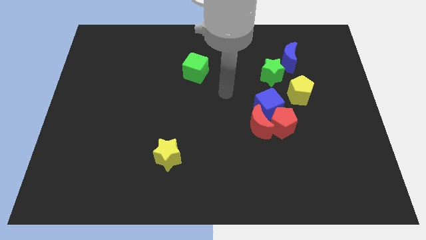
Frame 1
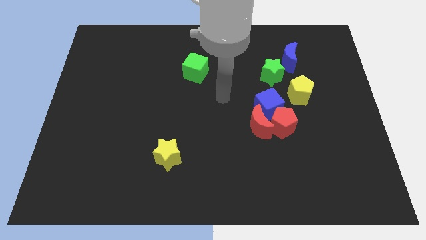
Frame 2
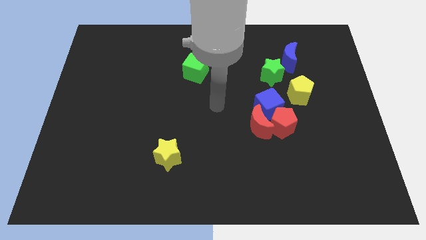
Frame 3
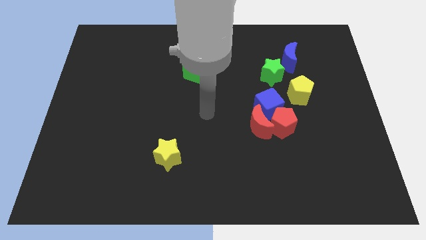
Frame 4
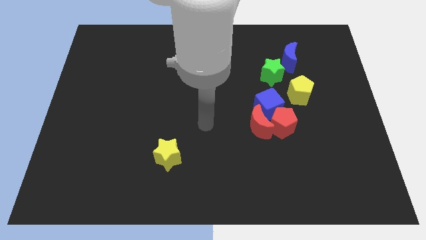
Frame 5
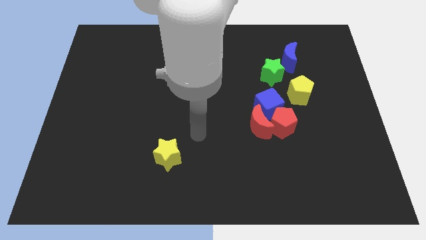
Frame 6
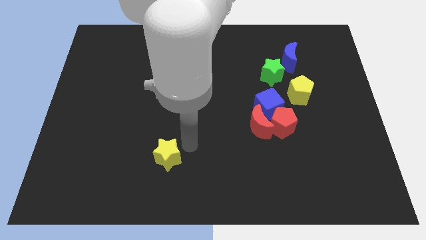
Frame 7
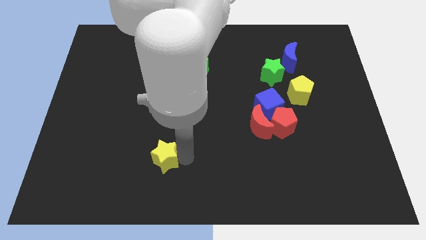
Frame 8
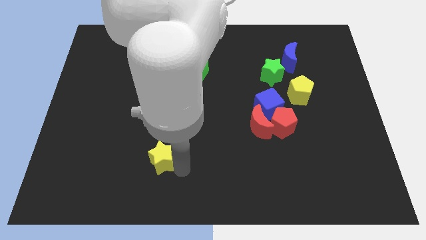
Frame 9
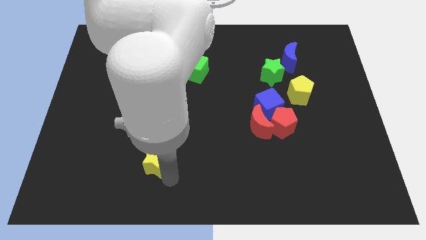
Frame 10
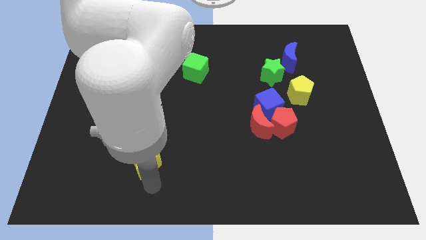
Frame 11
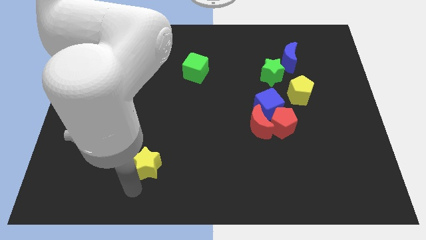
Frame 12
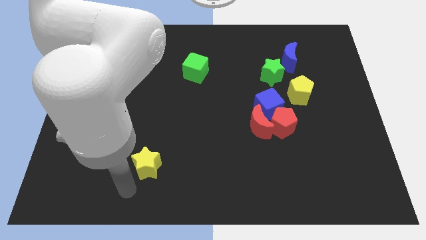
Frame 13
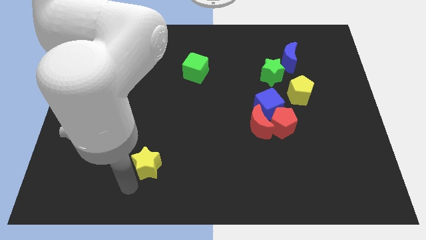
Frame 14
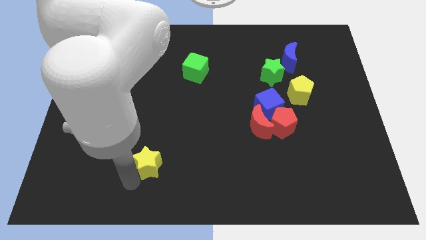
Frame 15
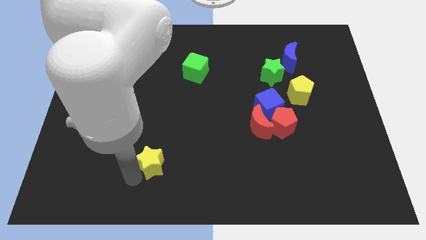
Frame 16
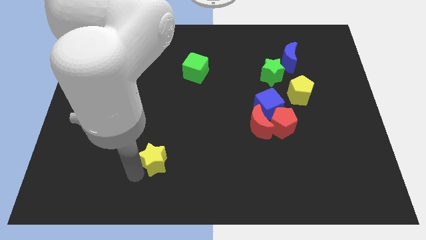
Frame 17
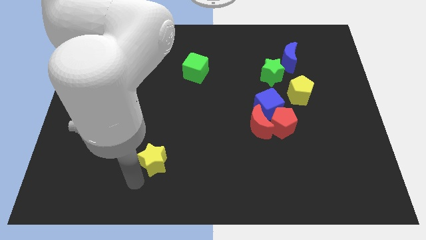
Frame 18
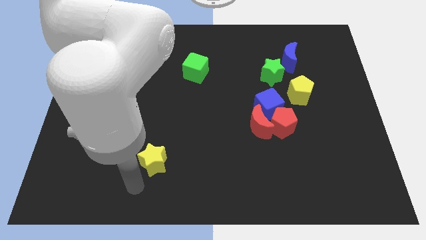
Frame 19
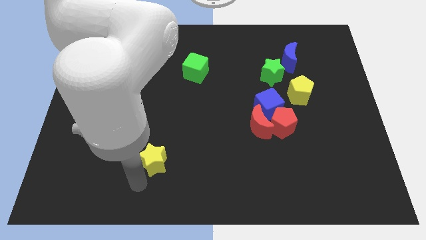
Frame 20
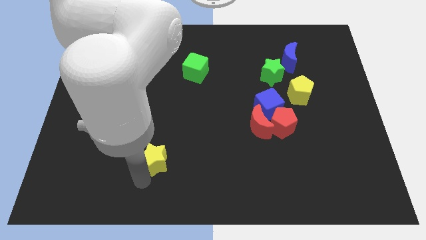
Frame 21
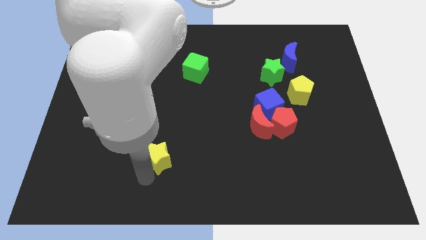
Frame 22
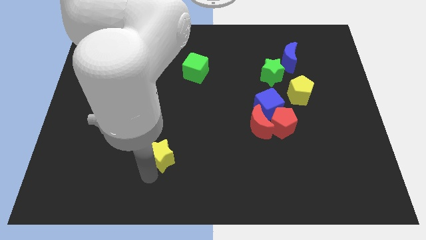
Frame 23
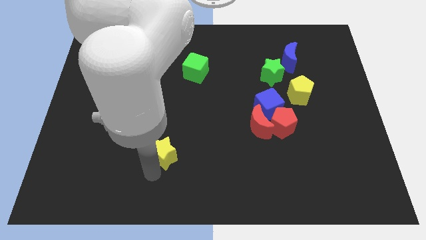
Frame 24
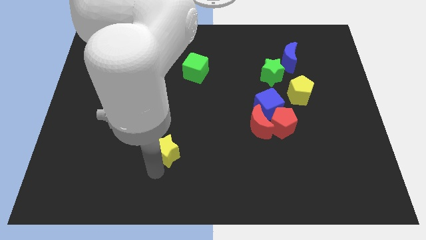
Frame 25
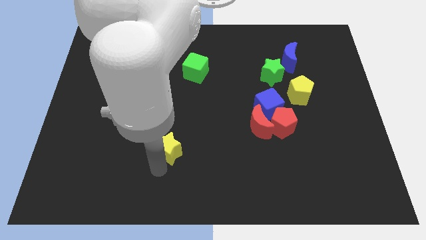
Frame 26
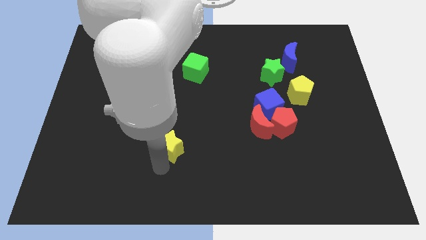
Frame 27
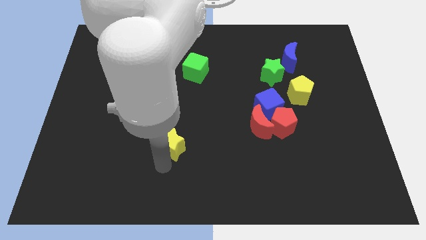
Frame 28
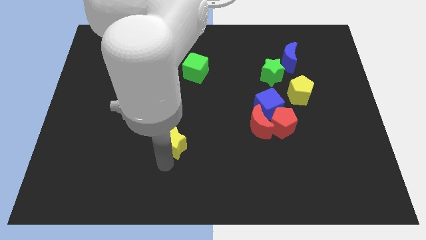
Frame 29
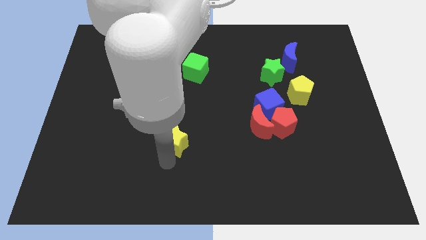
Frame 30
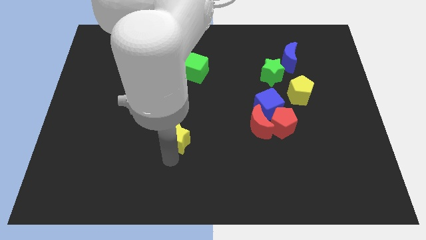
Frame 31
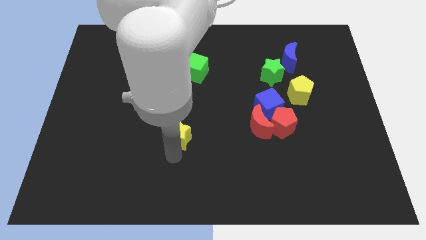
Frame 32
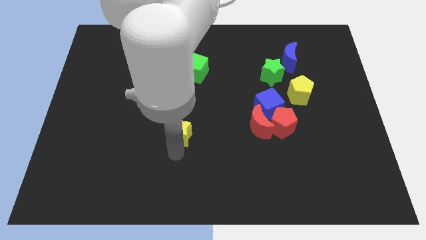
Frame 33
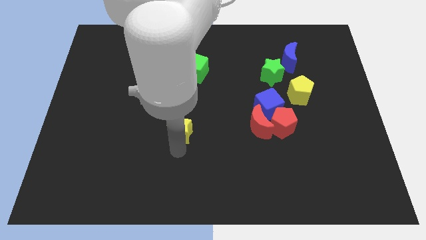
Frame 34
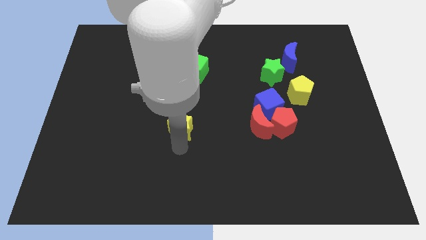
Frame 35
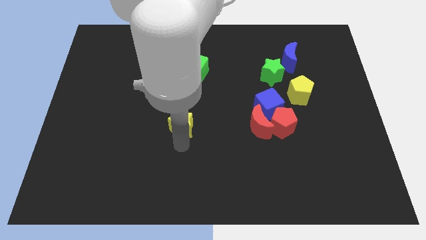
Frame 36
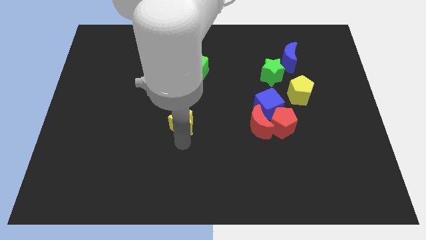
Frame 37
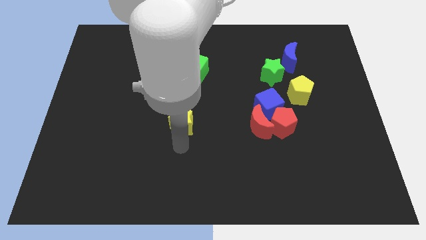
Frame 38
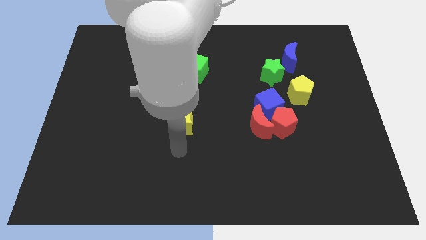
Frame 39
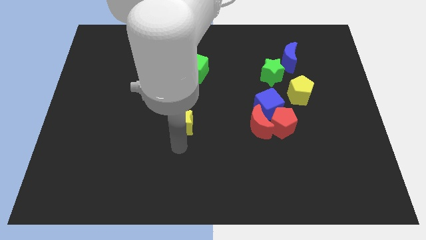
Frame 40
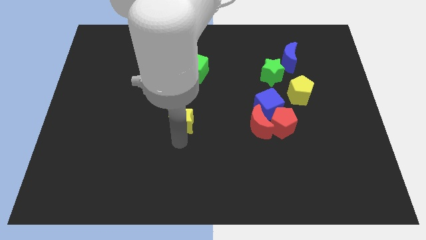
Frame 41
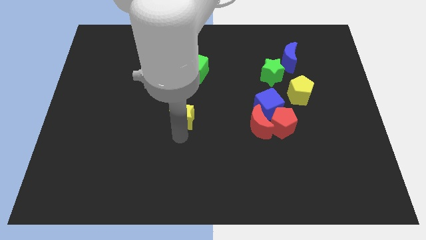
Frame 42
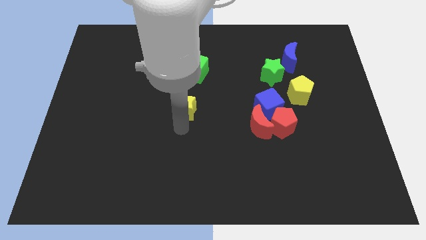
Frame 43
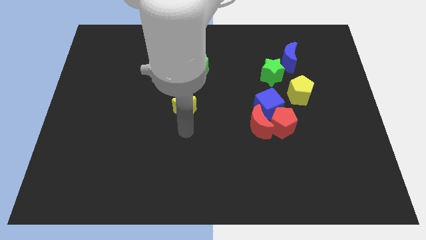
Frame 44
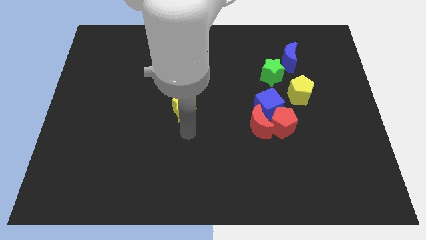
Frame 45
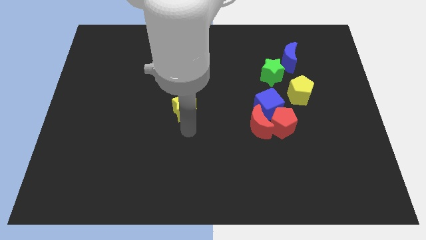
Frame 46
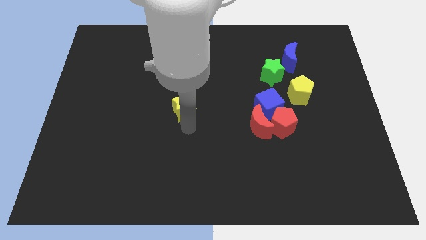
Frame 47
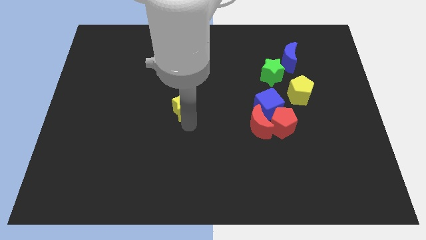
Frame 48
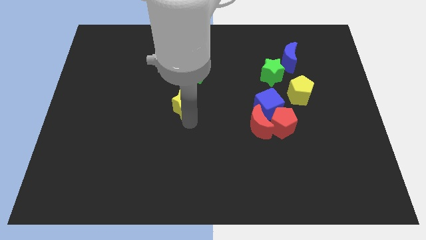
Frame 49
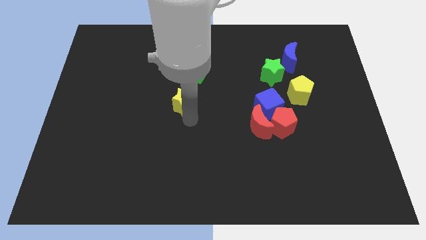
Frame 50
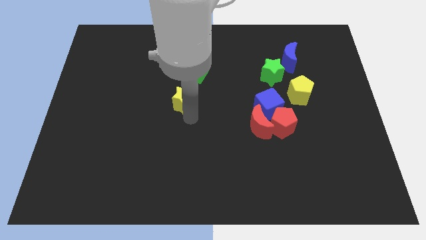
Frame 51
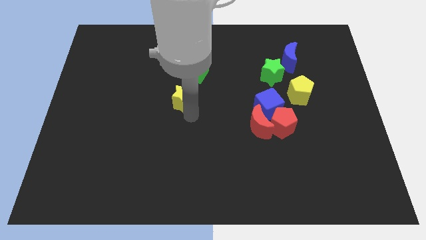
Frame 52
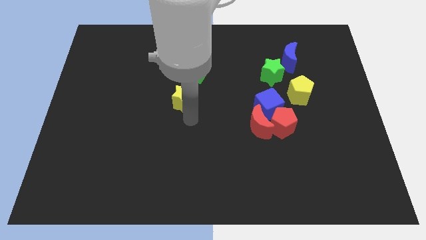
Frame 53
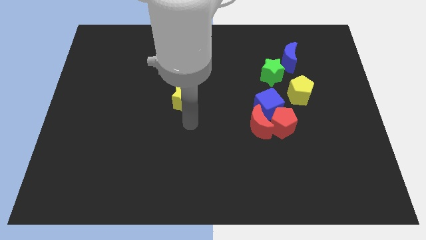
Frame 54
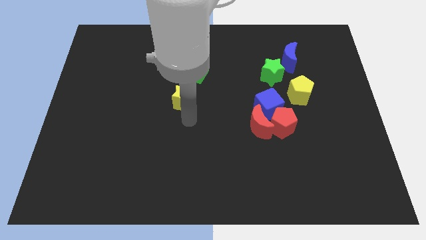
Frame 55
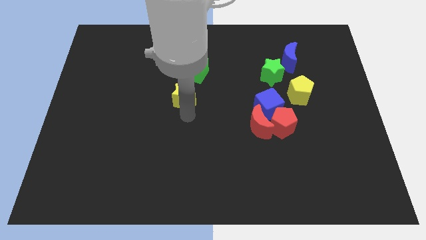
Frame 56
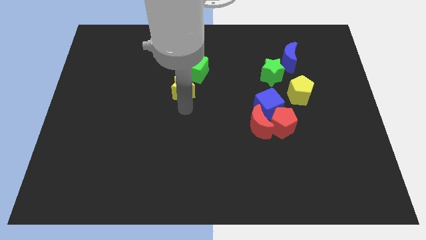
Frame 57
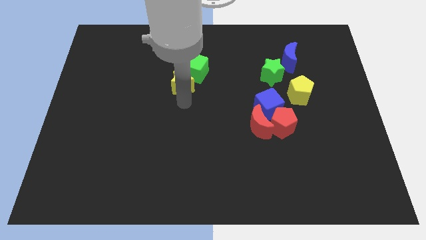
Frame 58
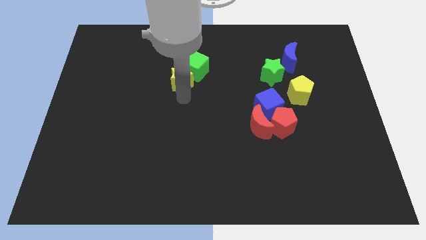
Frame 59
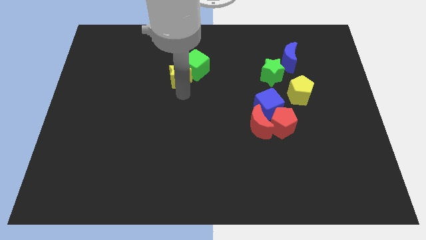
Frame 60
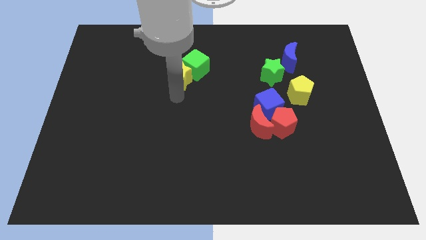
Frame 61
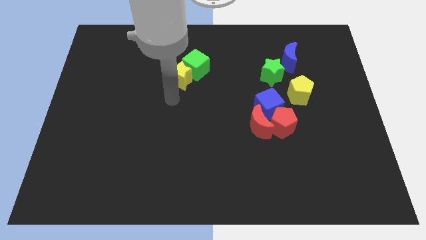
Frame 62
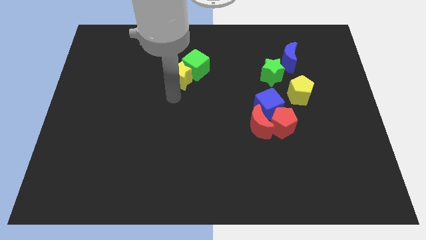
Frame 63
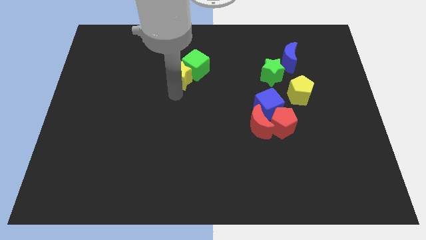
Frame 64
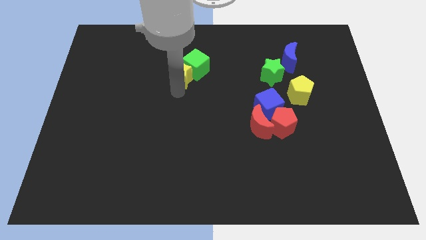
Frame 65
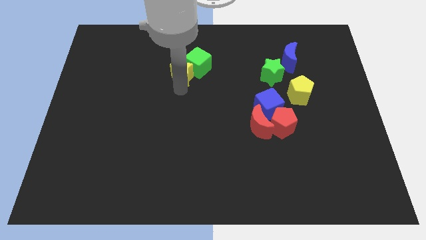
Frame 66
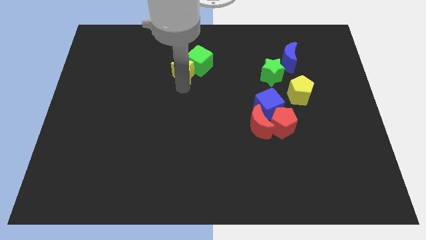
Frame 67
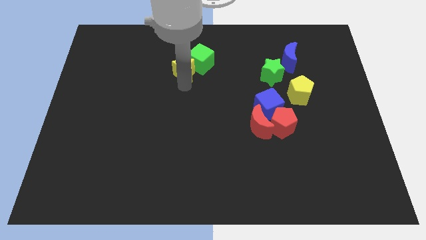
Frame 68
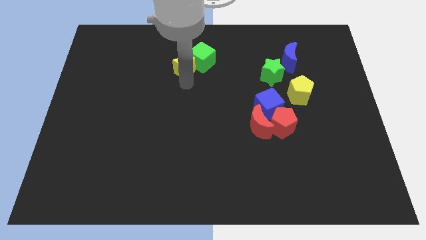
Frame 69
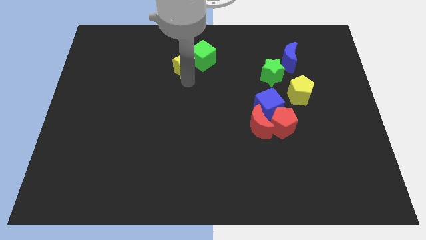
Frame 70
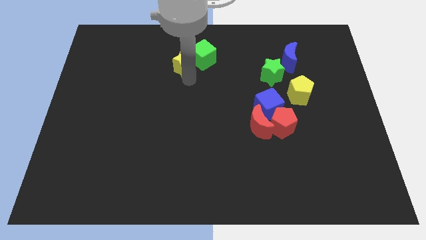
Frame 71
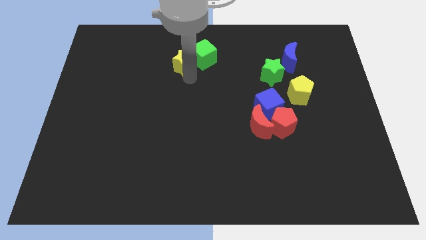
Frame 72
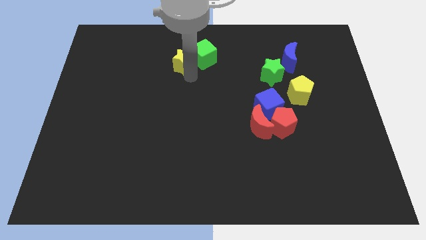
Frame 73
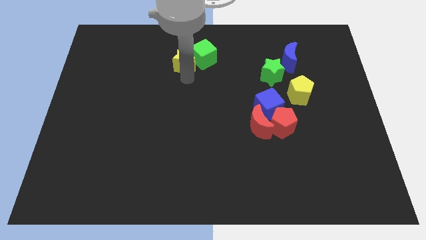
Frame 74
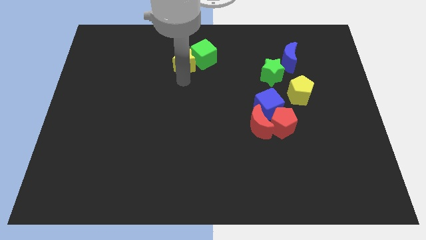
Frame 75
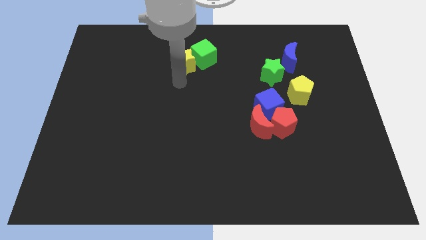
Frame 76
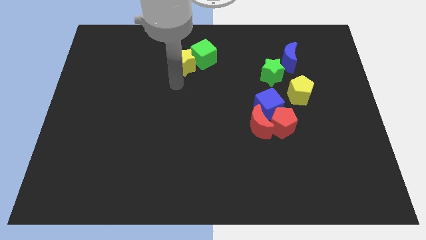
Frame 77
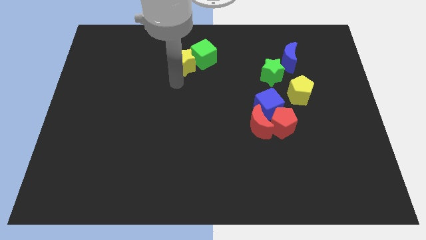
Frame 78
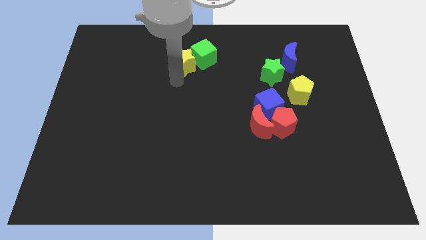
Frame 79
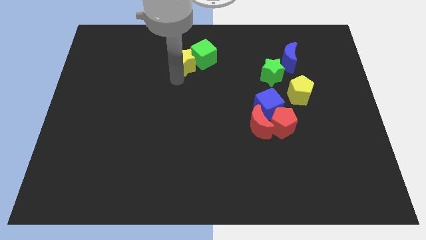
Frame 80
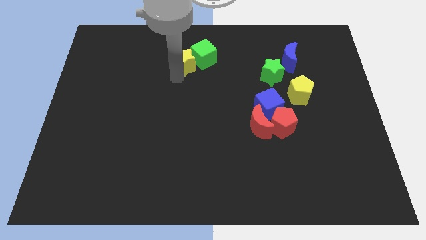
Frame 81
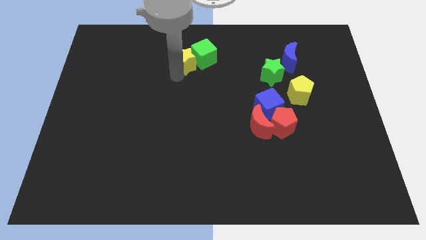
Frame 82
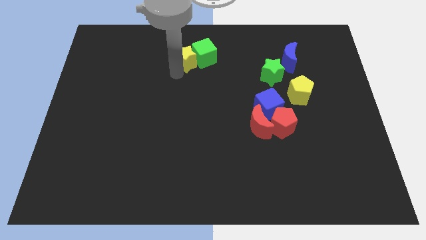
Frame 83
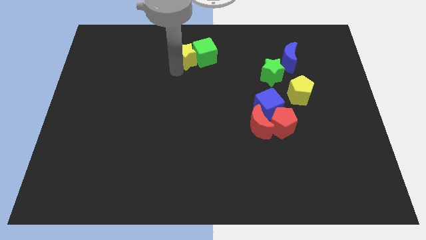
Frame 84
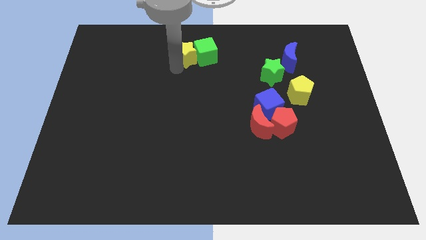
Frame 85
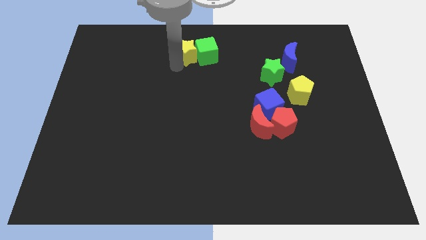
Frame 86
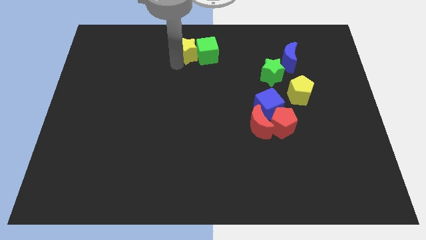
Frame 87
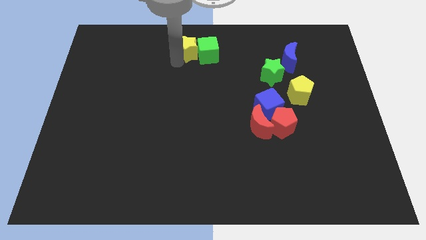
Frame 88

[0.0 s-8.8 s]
put the yellow star to the top
